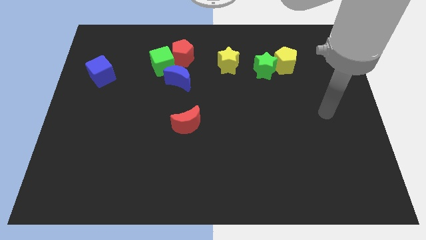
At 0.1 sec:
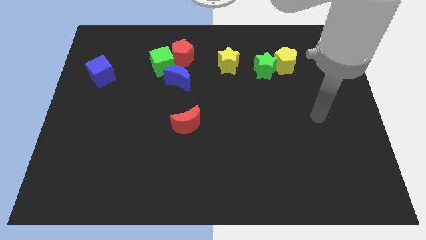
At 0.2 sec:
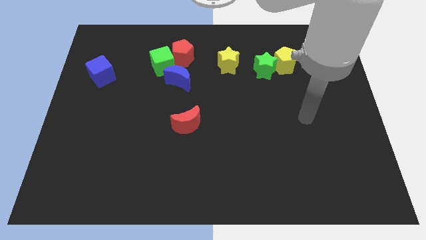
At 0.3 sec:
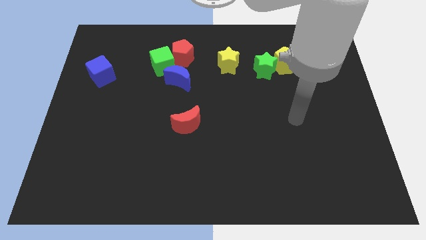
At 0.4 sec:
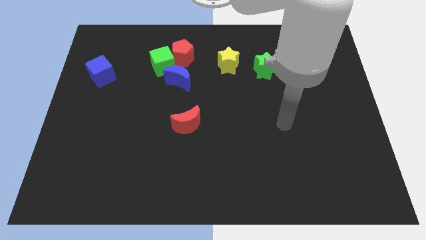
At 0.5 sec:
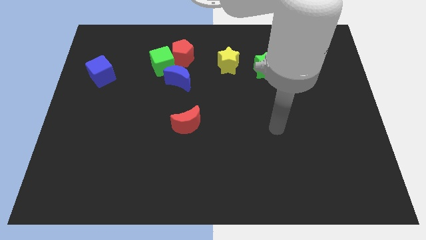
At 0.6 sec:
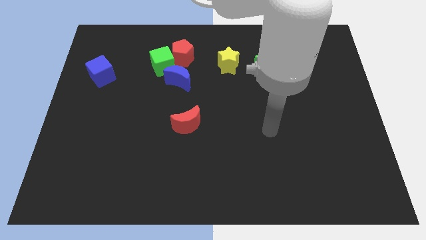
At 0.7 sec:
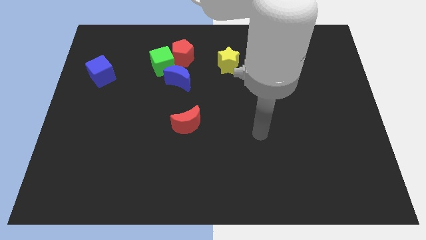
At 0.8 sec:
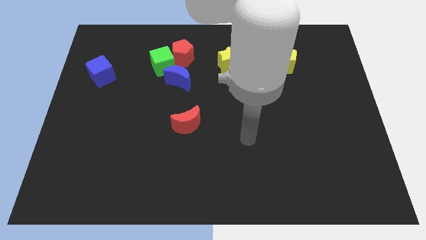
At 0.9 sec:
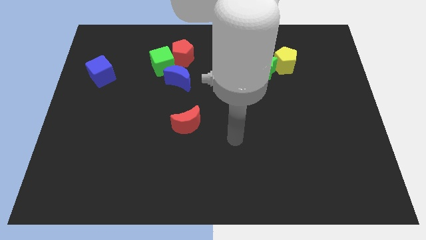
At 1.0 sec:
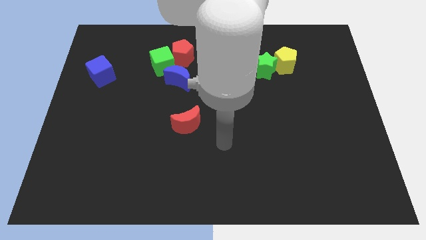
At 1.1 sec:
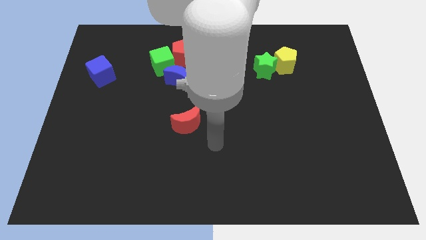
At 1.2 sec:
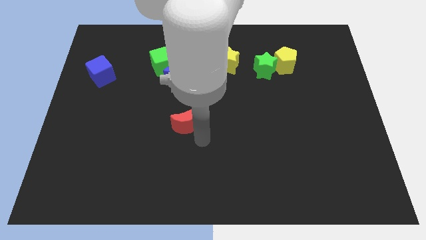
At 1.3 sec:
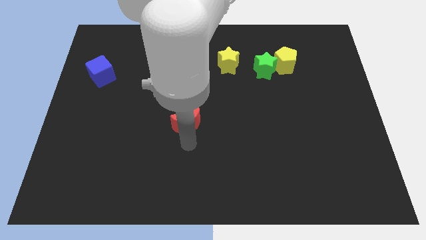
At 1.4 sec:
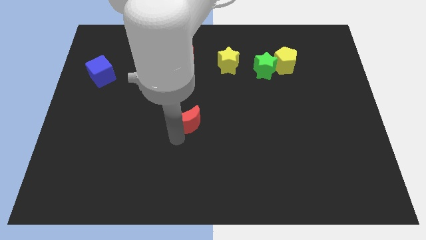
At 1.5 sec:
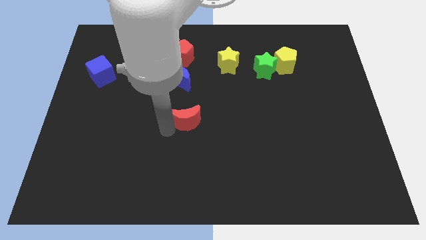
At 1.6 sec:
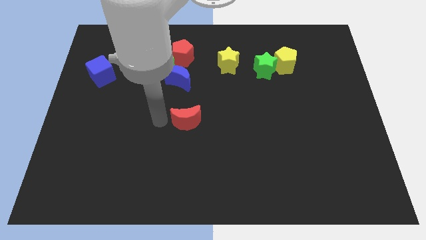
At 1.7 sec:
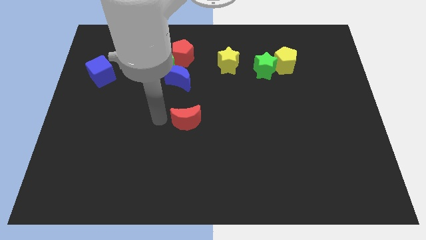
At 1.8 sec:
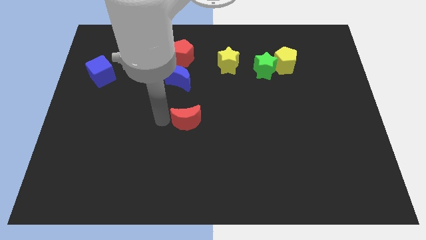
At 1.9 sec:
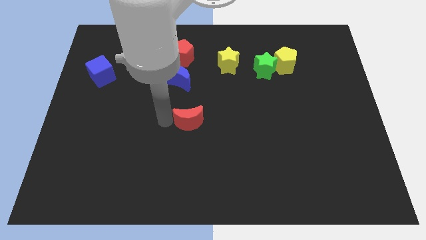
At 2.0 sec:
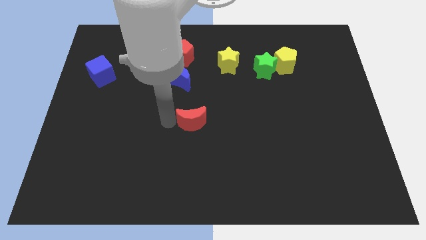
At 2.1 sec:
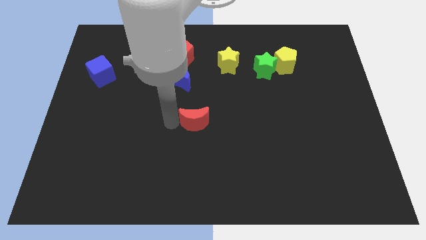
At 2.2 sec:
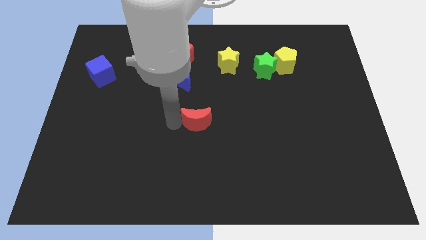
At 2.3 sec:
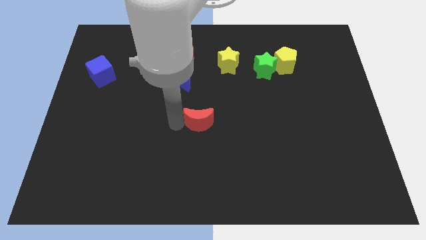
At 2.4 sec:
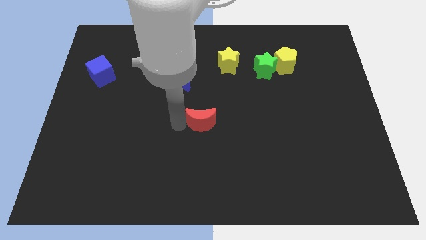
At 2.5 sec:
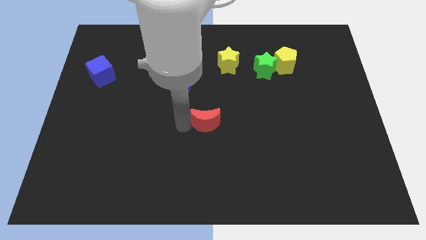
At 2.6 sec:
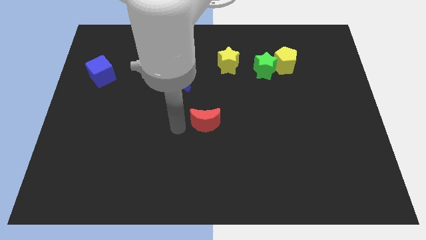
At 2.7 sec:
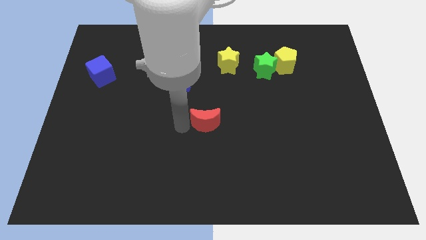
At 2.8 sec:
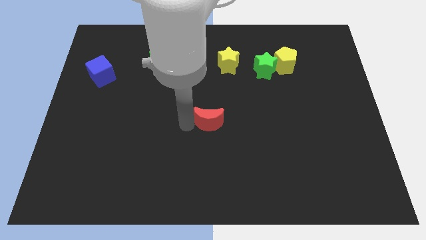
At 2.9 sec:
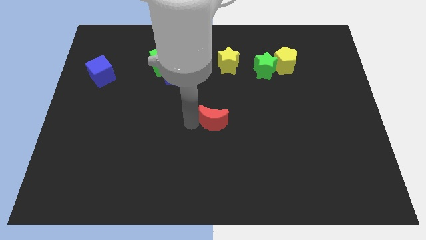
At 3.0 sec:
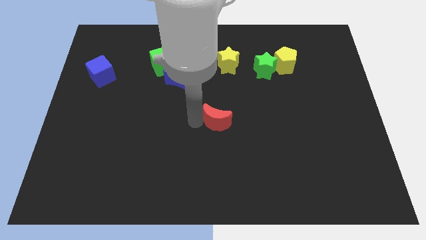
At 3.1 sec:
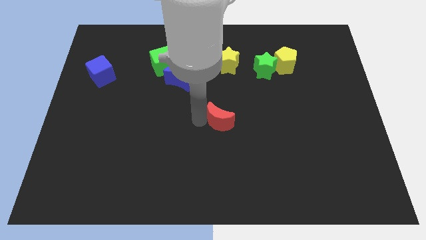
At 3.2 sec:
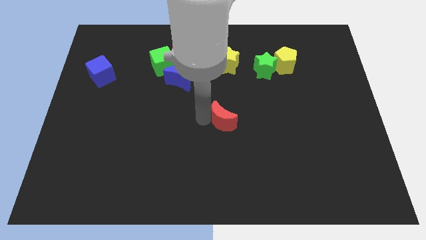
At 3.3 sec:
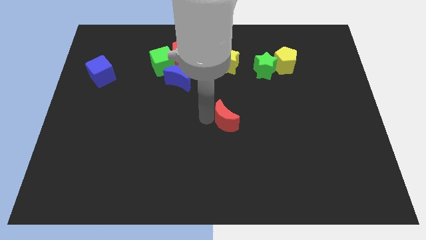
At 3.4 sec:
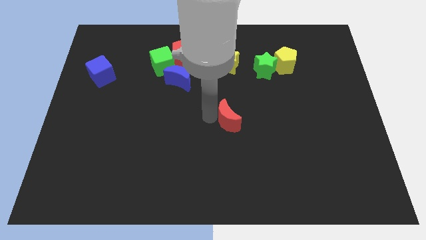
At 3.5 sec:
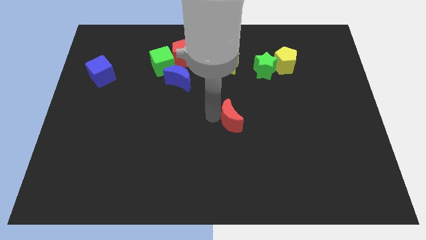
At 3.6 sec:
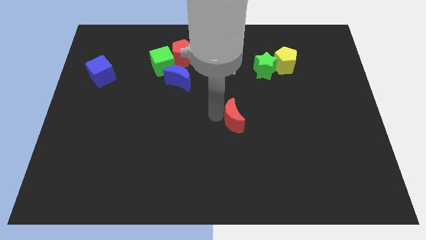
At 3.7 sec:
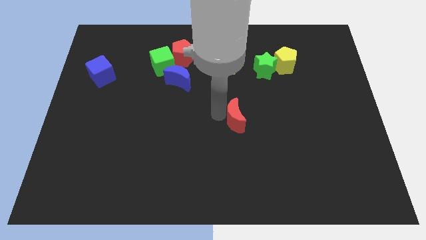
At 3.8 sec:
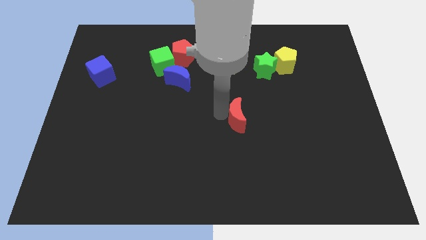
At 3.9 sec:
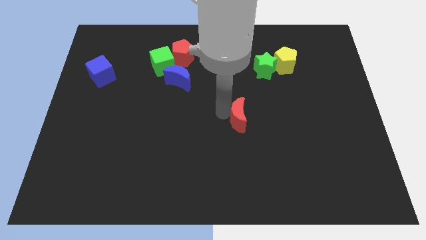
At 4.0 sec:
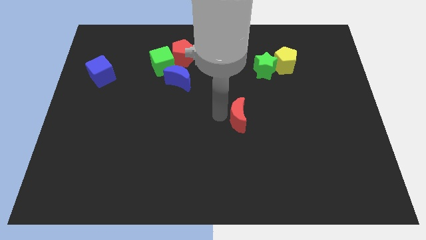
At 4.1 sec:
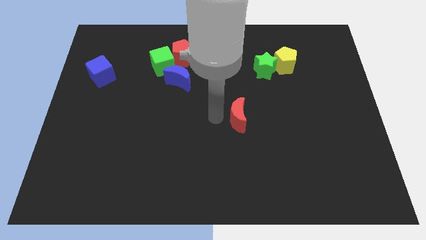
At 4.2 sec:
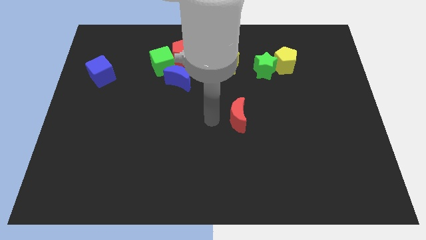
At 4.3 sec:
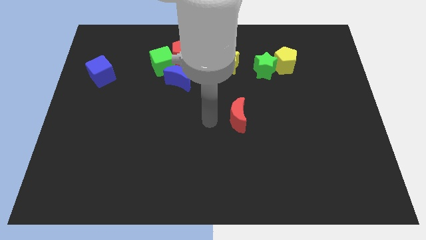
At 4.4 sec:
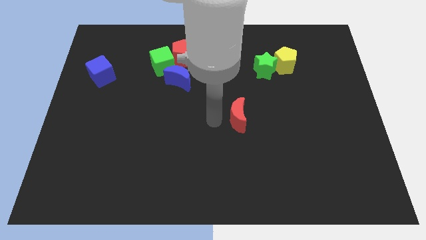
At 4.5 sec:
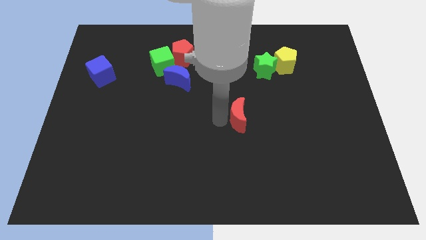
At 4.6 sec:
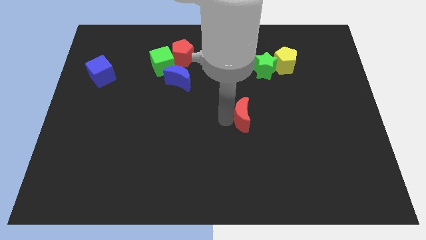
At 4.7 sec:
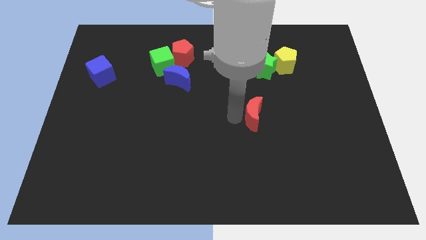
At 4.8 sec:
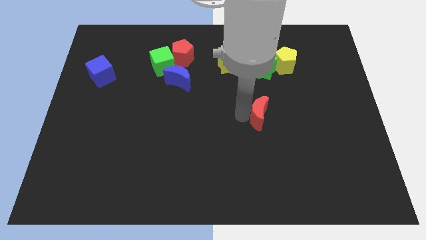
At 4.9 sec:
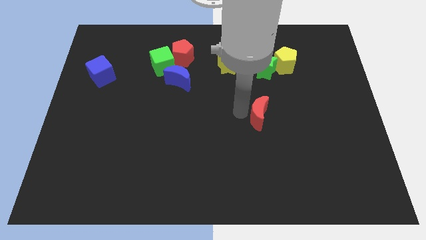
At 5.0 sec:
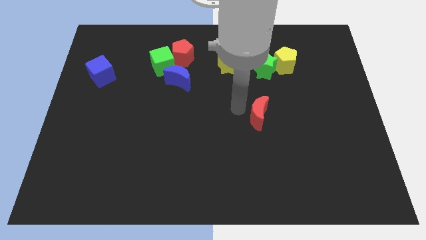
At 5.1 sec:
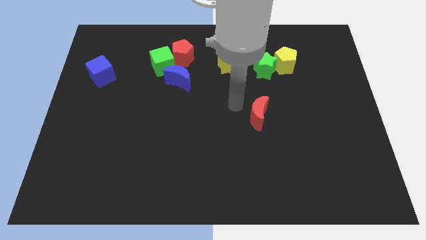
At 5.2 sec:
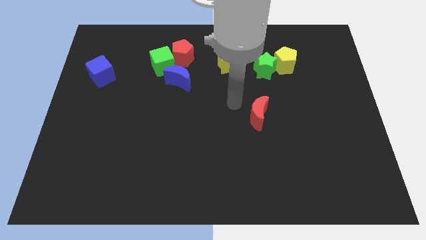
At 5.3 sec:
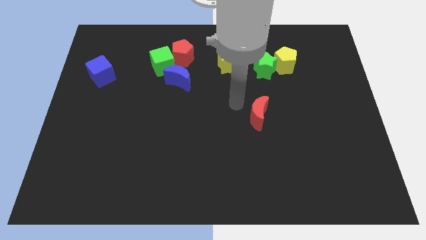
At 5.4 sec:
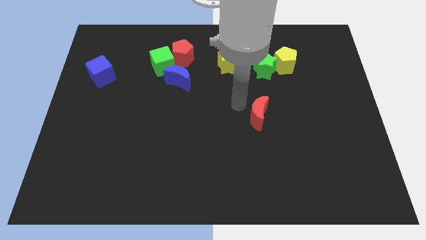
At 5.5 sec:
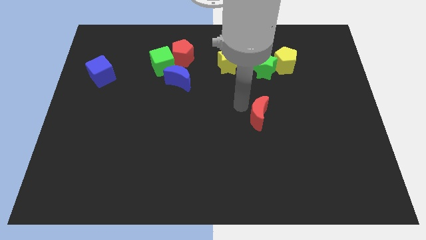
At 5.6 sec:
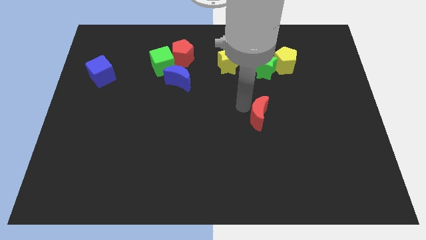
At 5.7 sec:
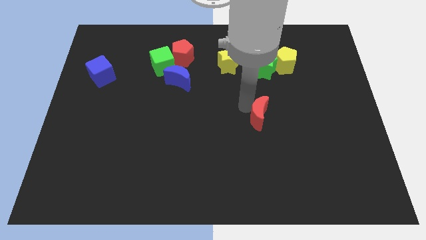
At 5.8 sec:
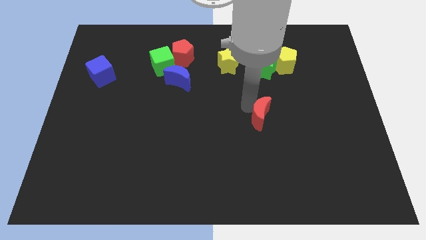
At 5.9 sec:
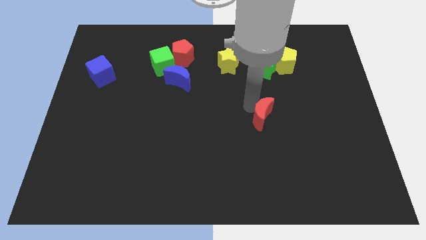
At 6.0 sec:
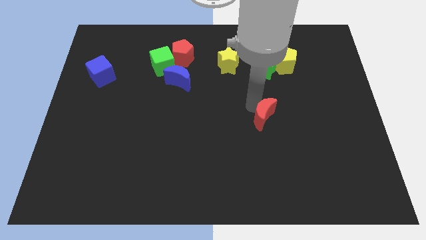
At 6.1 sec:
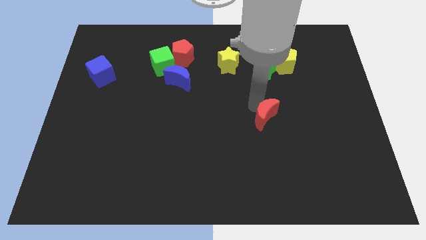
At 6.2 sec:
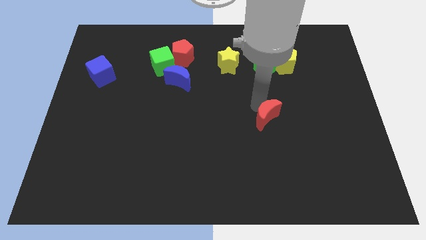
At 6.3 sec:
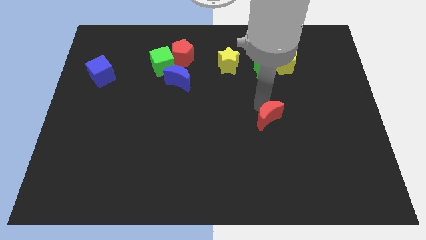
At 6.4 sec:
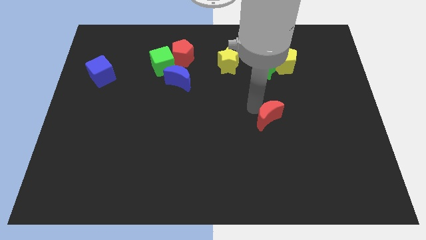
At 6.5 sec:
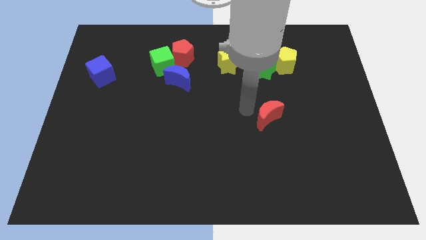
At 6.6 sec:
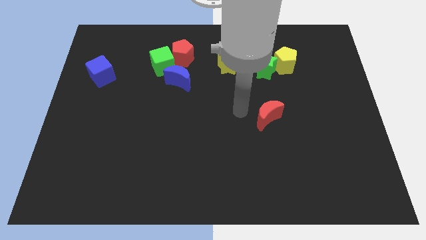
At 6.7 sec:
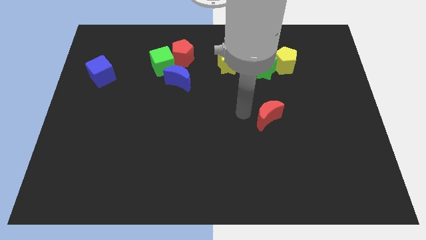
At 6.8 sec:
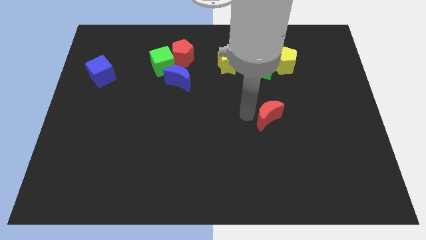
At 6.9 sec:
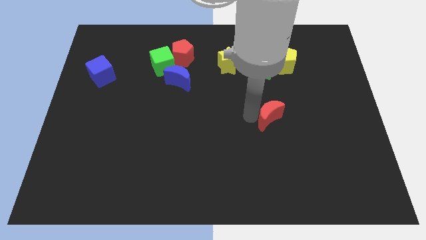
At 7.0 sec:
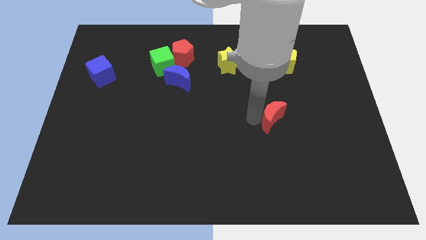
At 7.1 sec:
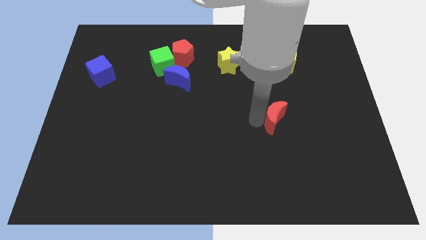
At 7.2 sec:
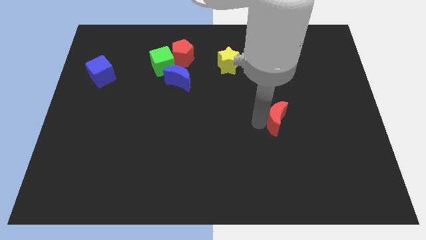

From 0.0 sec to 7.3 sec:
move the red moon right

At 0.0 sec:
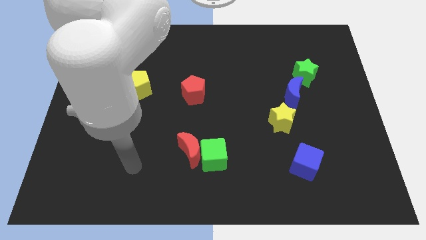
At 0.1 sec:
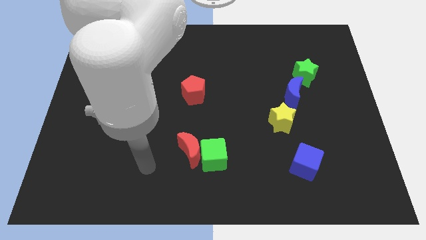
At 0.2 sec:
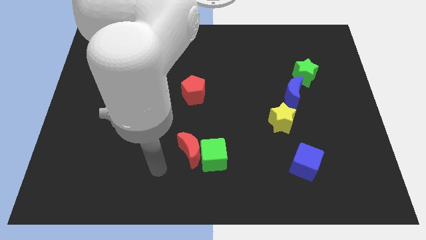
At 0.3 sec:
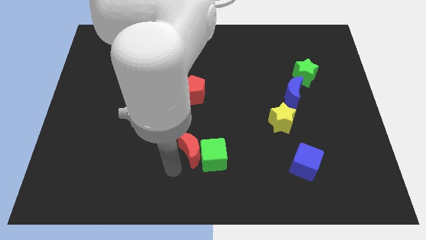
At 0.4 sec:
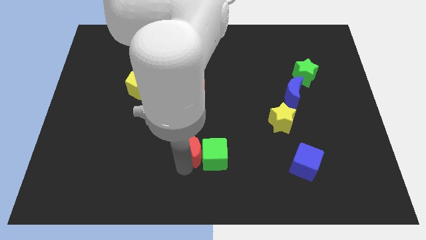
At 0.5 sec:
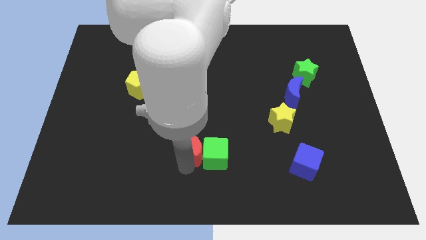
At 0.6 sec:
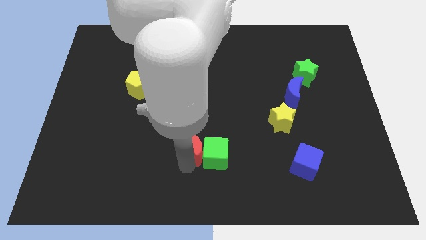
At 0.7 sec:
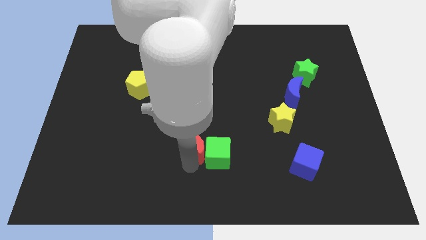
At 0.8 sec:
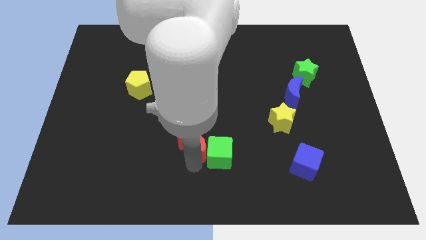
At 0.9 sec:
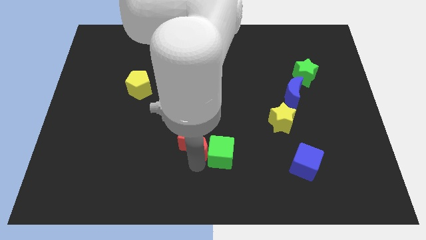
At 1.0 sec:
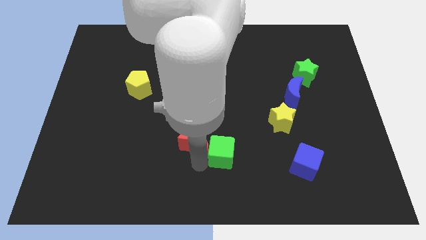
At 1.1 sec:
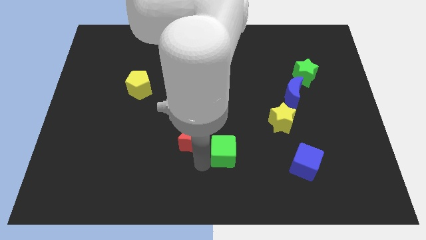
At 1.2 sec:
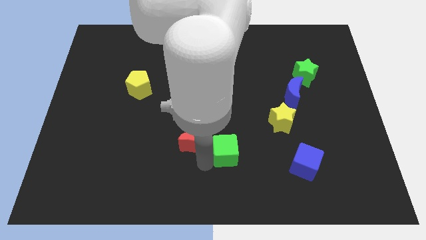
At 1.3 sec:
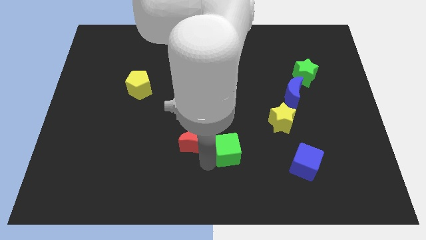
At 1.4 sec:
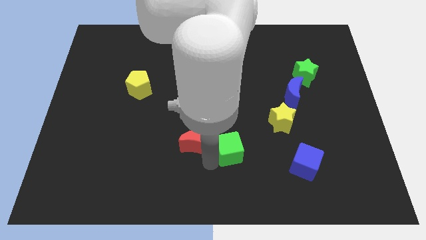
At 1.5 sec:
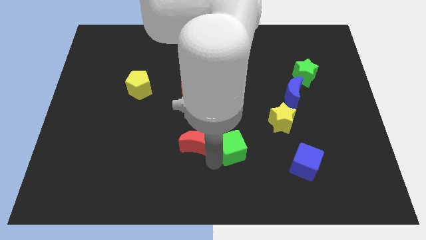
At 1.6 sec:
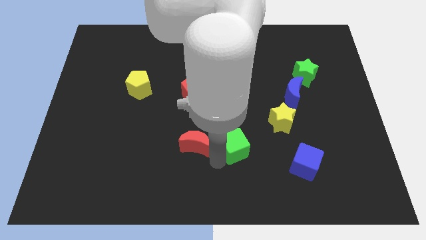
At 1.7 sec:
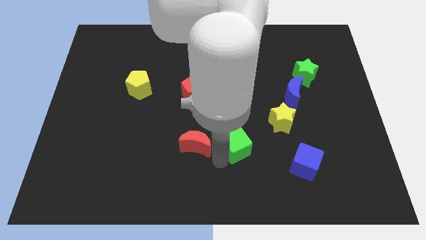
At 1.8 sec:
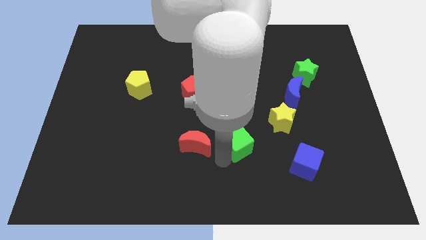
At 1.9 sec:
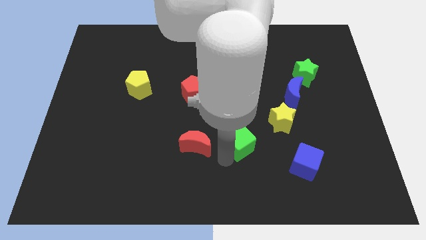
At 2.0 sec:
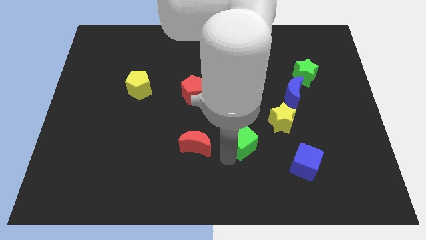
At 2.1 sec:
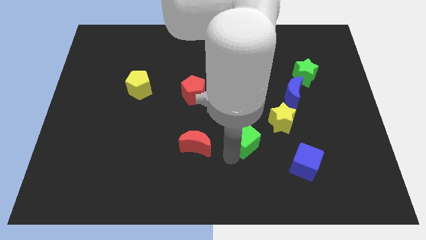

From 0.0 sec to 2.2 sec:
move the green cube a bit up and right diagonally
